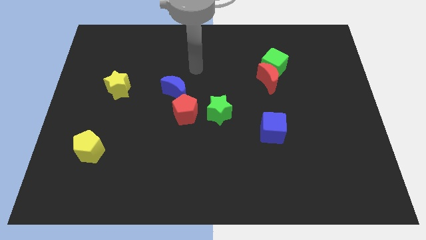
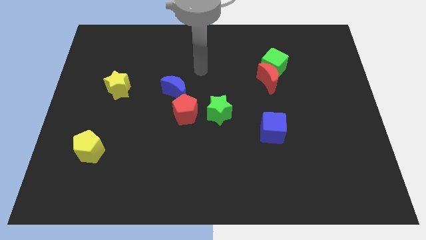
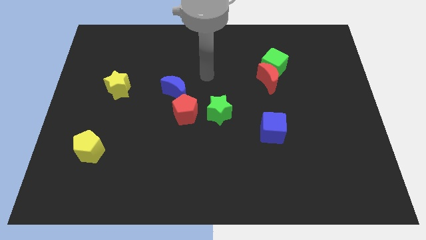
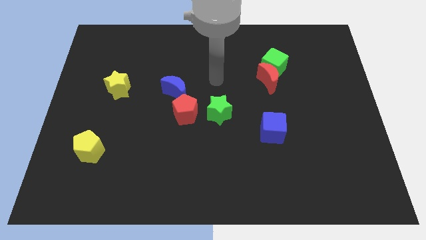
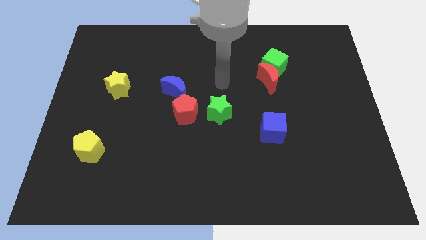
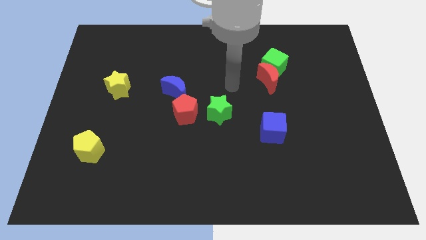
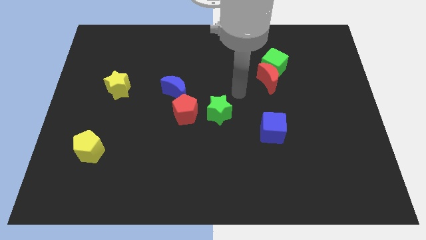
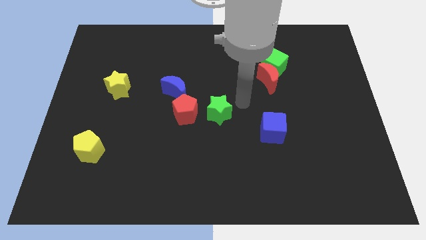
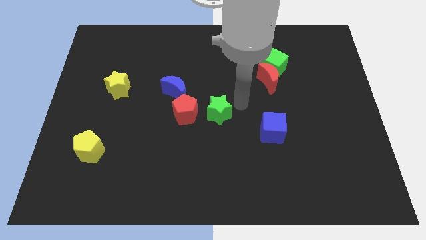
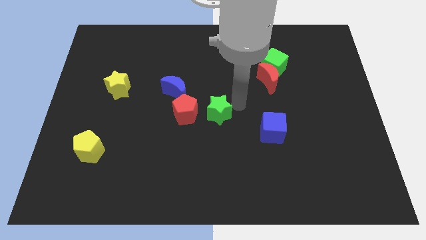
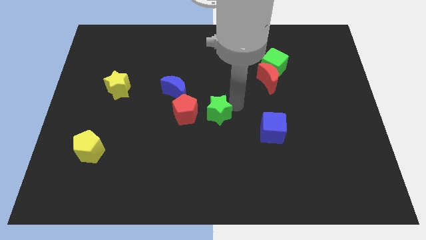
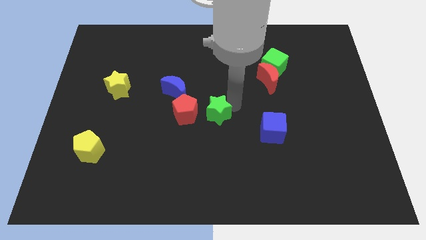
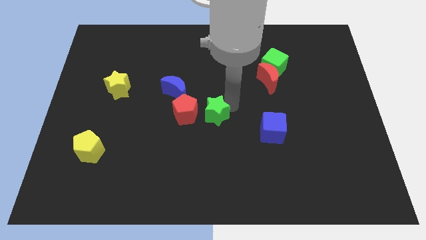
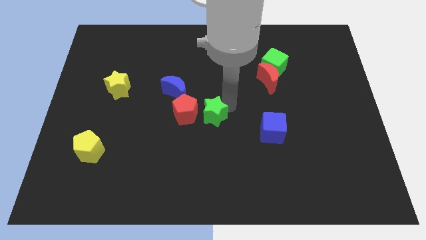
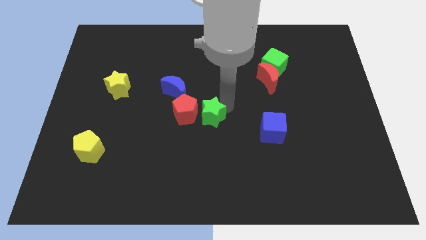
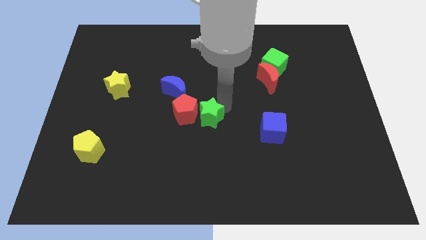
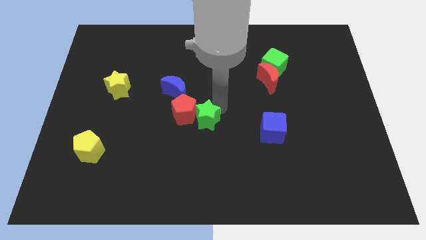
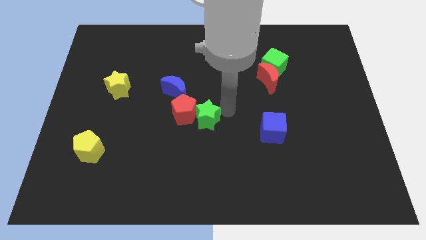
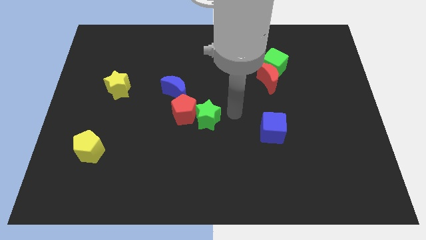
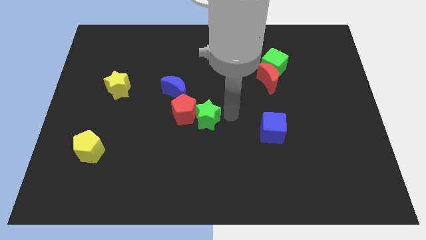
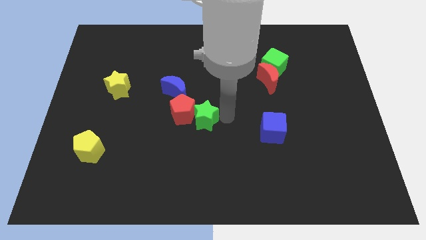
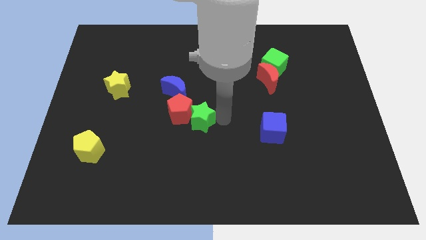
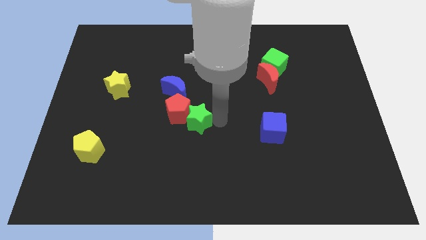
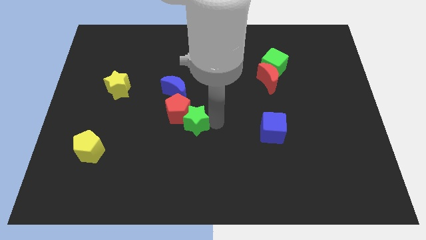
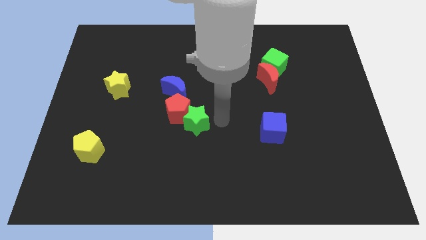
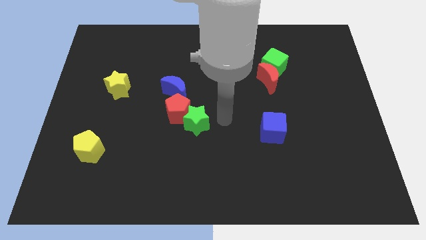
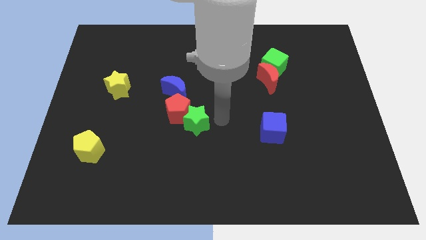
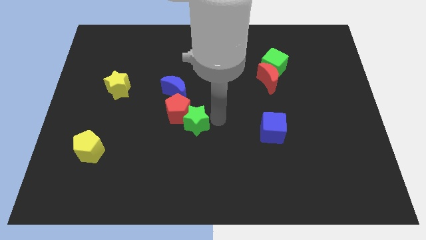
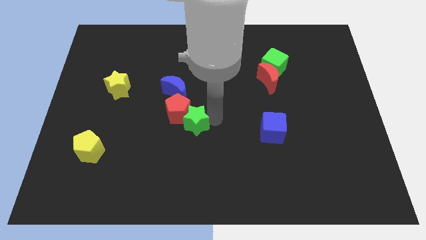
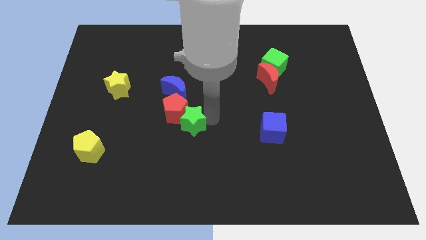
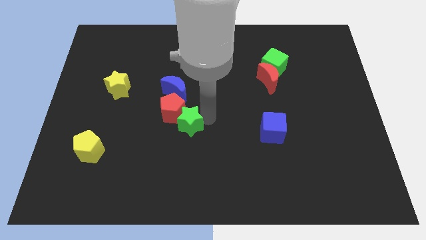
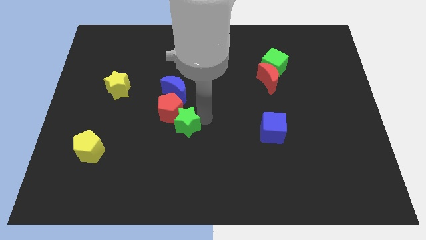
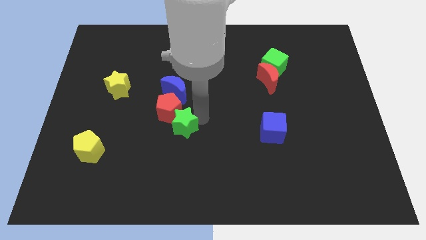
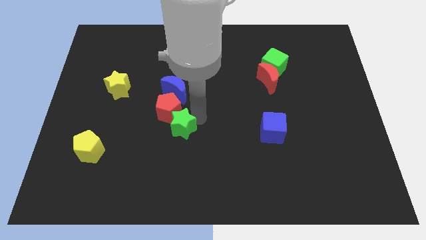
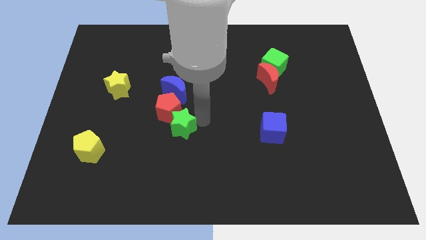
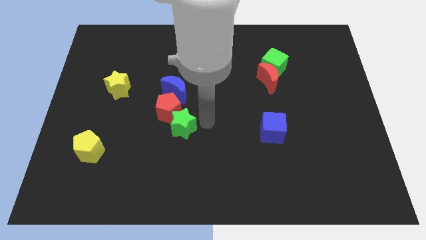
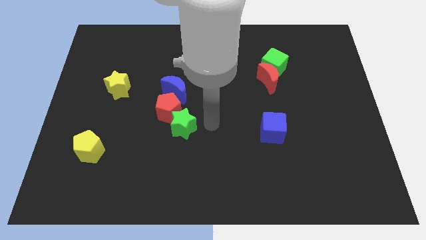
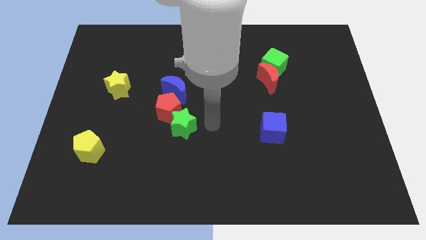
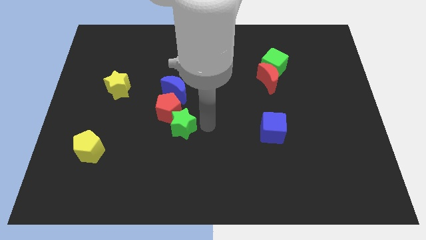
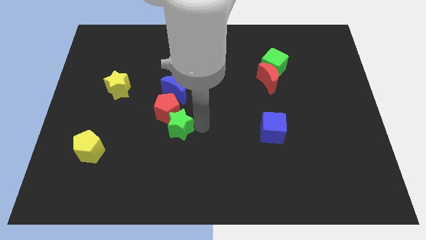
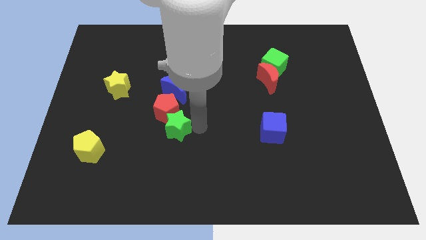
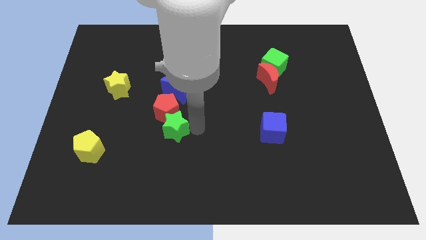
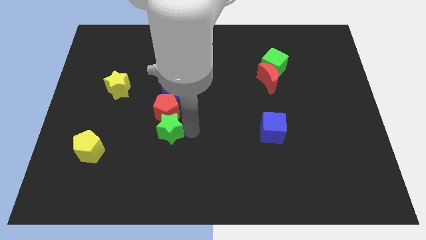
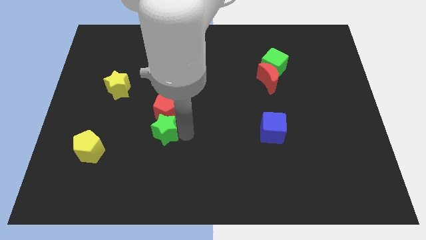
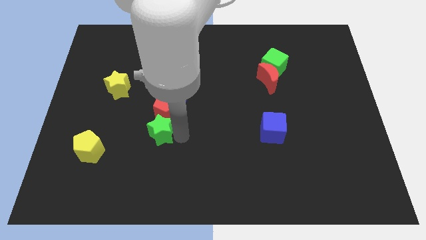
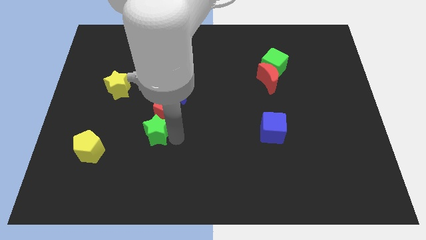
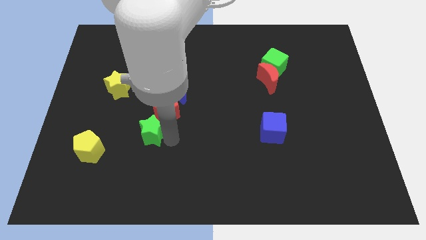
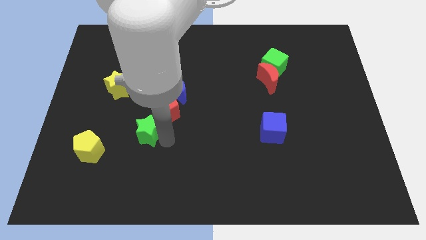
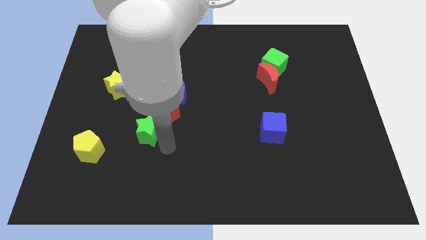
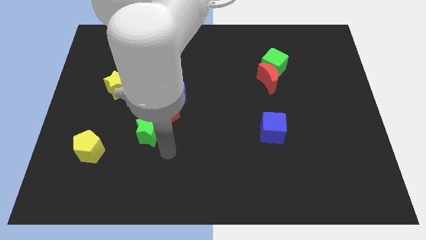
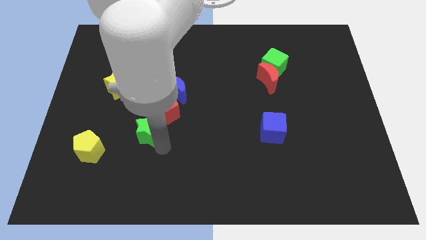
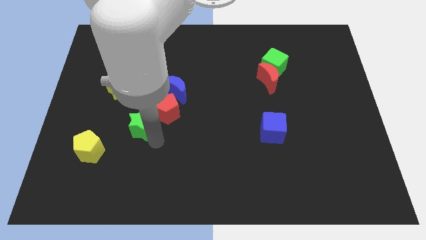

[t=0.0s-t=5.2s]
push the green star left of the red pentagon

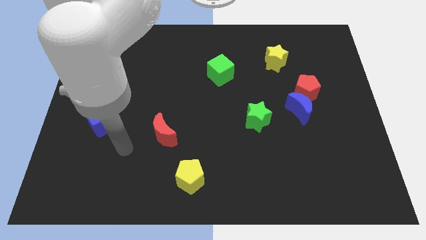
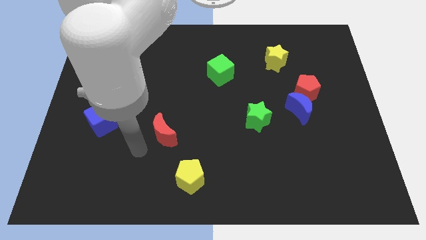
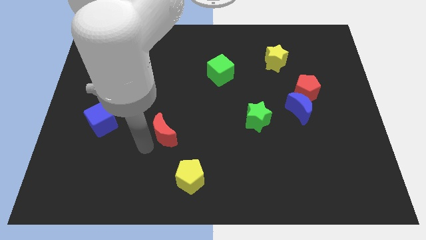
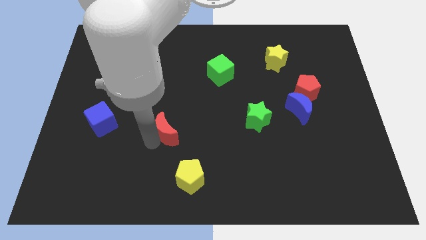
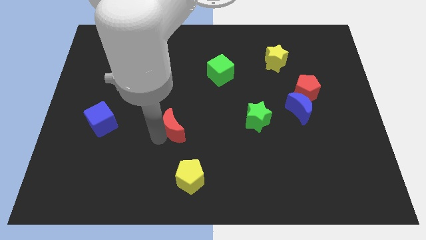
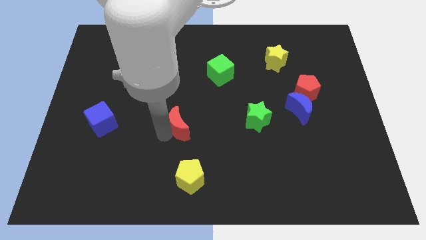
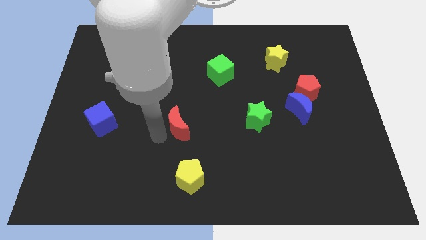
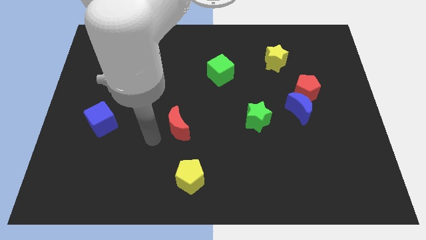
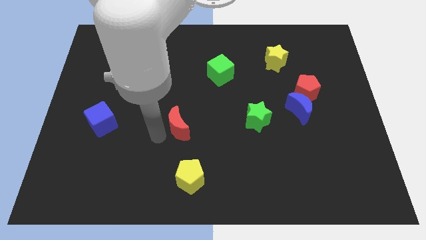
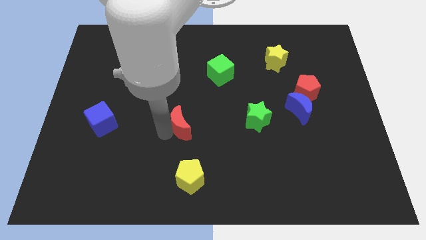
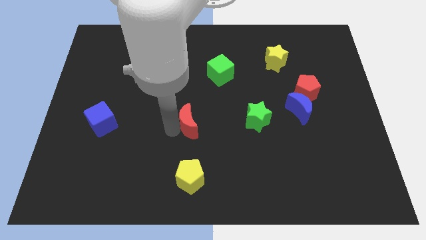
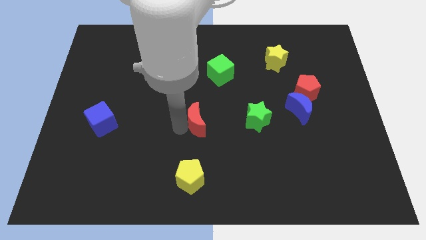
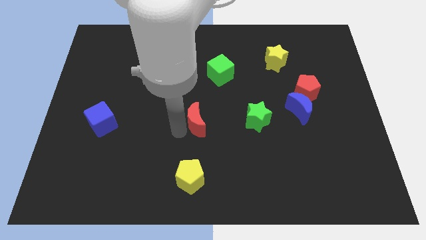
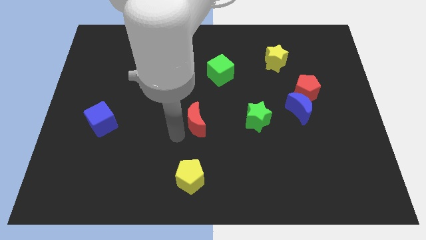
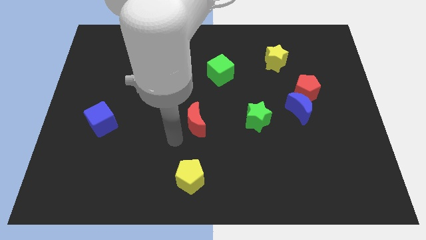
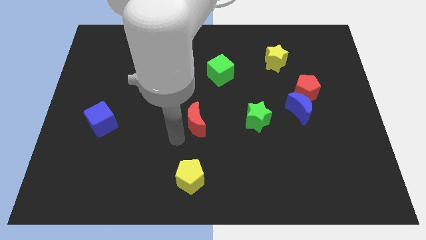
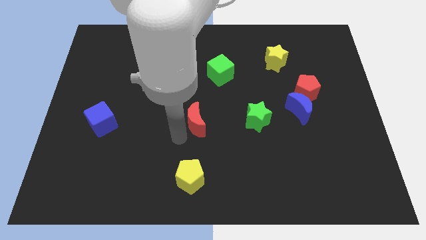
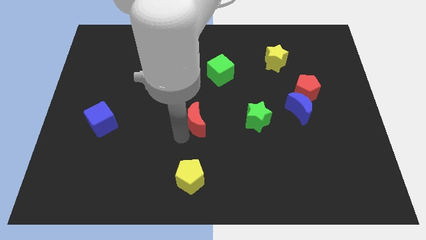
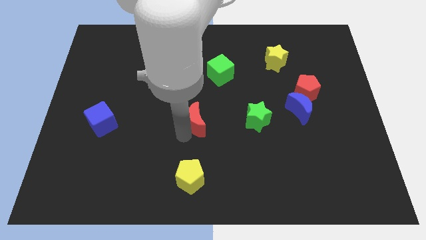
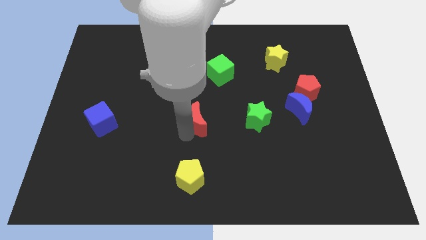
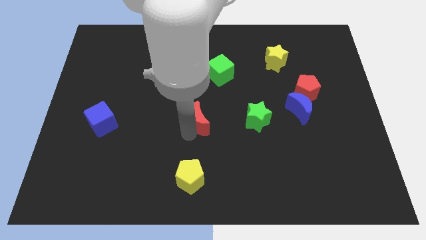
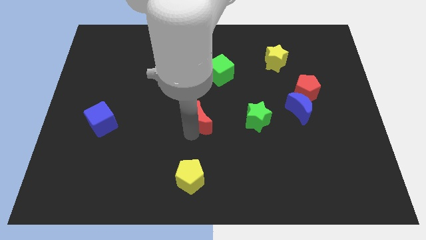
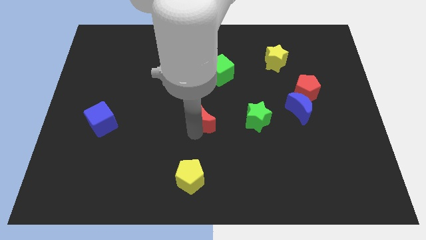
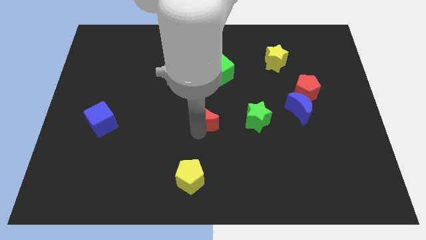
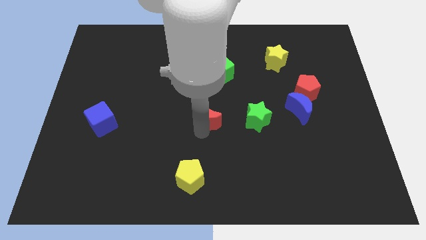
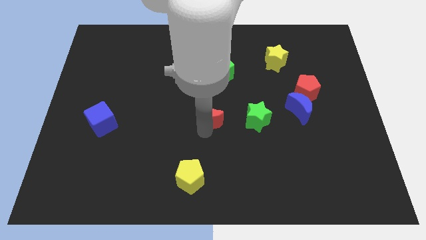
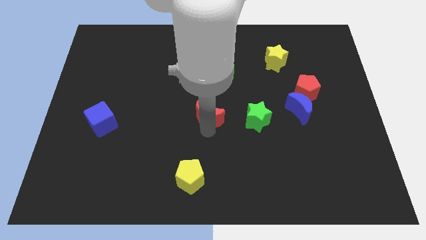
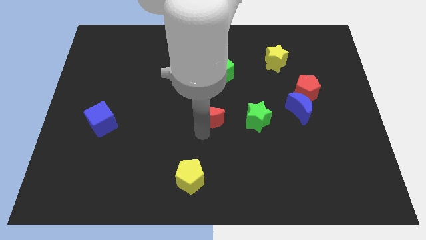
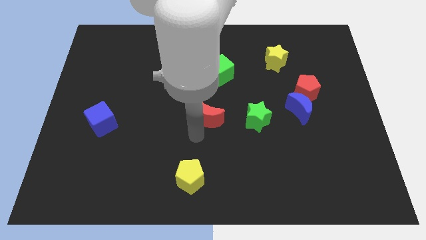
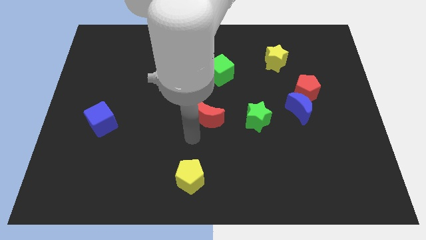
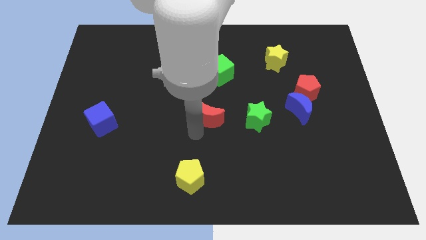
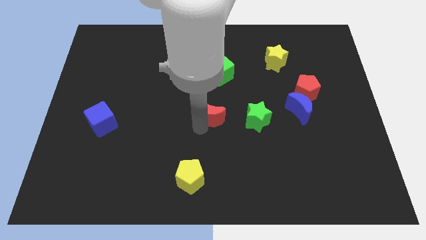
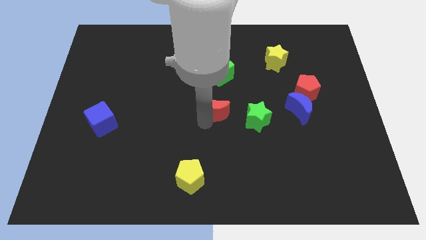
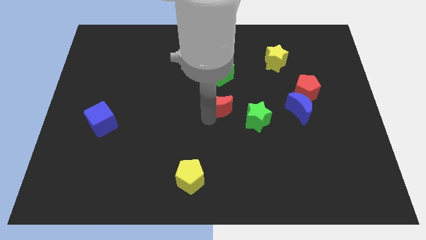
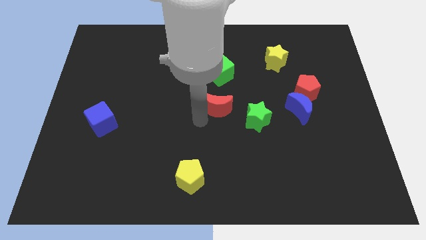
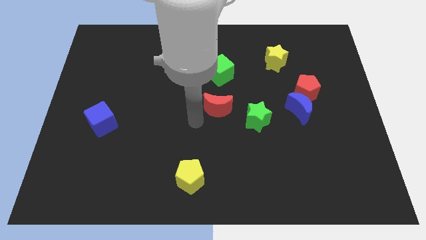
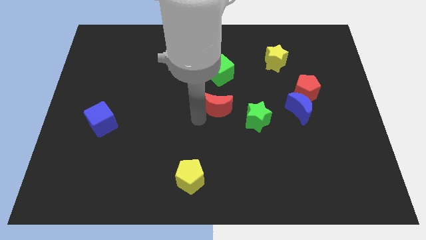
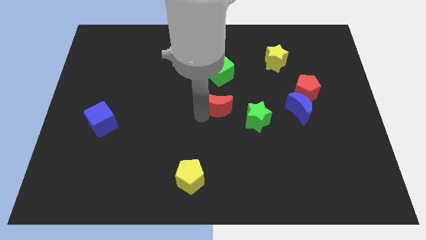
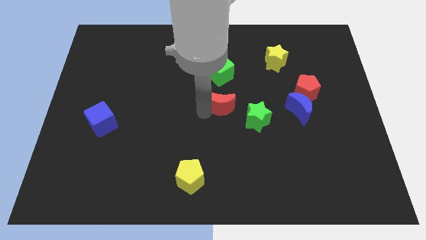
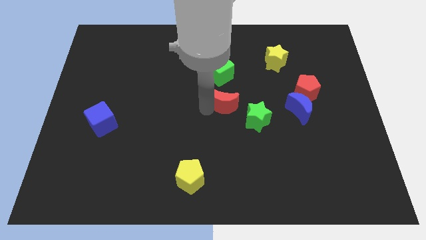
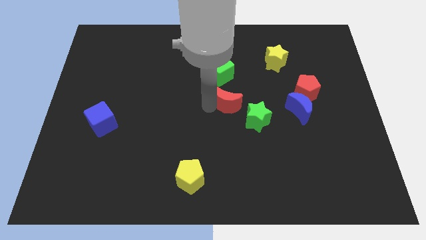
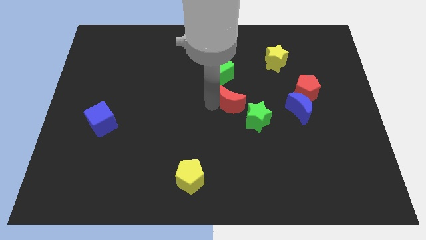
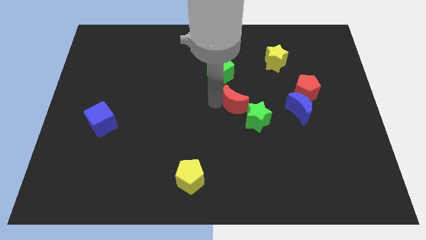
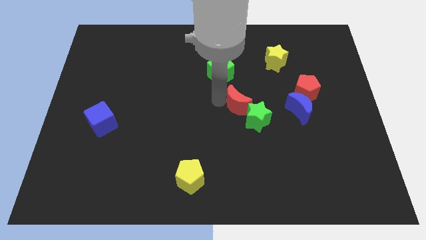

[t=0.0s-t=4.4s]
push the red moon to the top side of the green star
